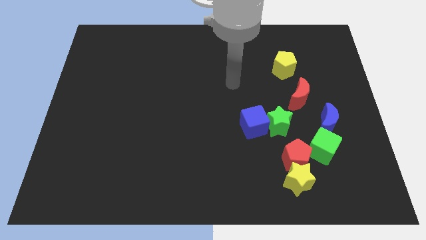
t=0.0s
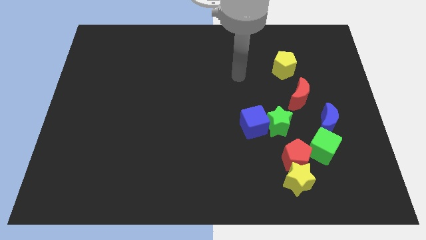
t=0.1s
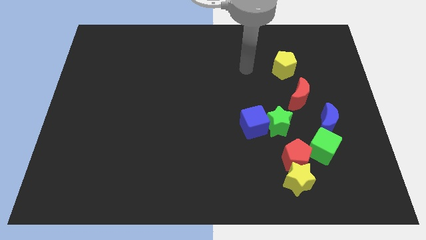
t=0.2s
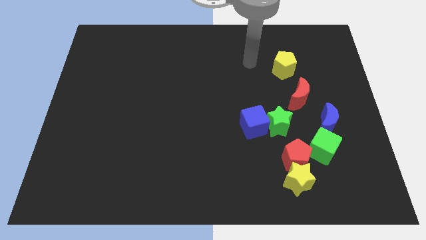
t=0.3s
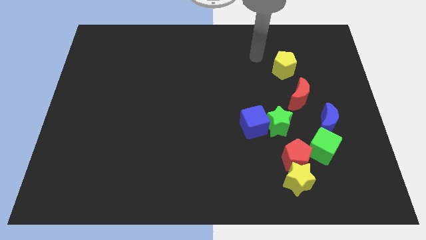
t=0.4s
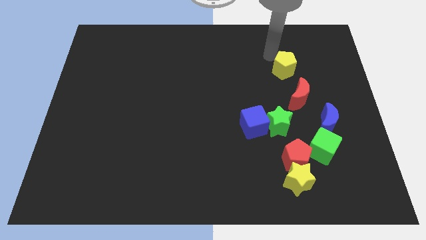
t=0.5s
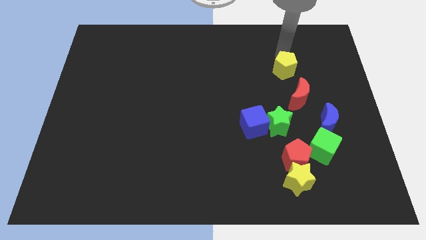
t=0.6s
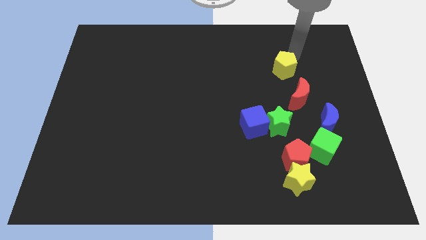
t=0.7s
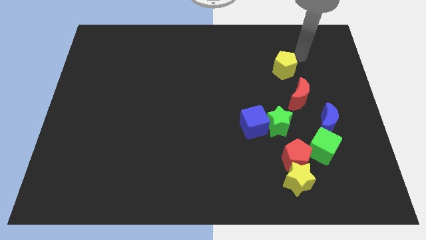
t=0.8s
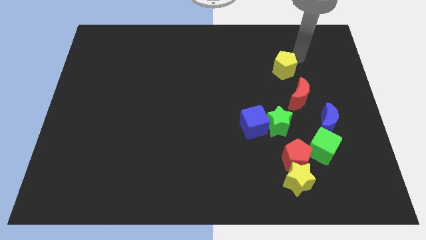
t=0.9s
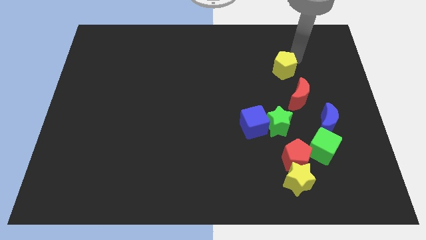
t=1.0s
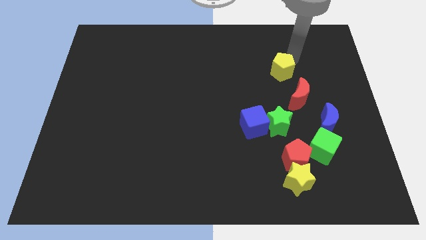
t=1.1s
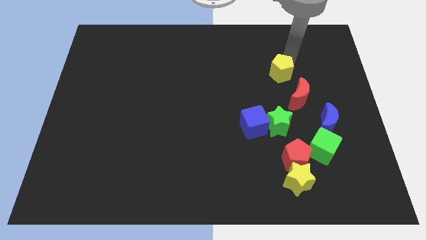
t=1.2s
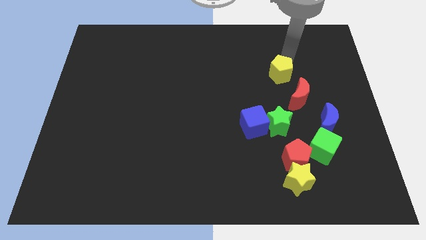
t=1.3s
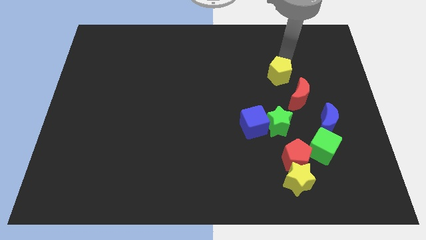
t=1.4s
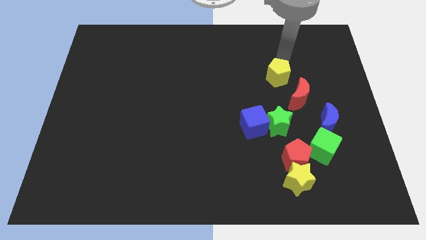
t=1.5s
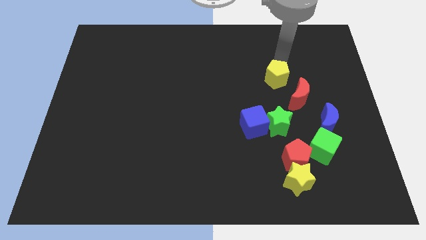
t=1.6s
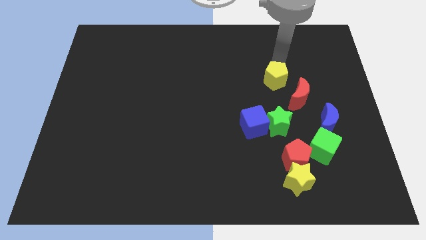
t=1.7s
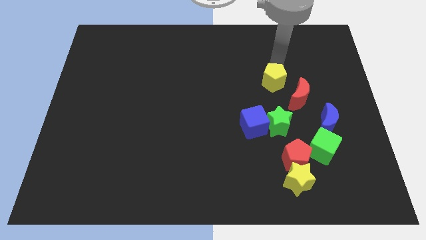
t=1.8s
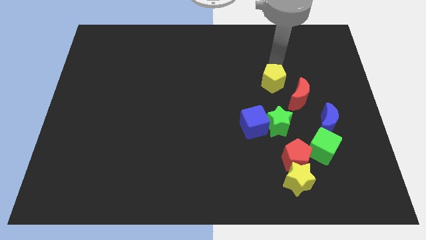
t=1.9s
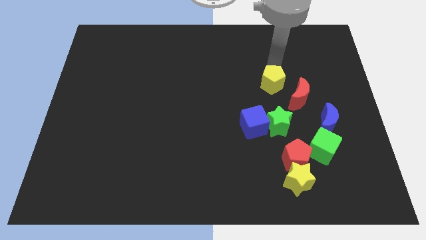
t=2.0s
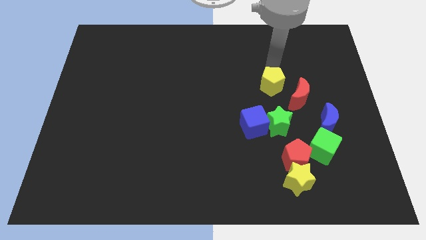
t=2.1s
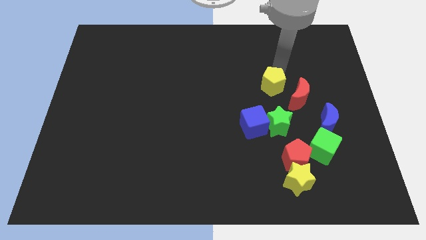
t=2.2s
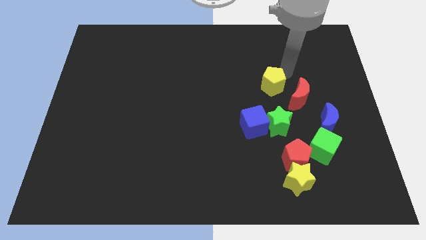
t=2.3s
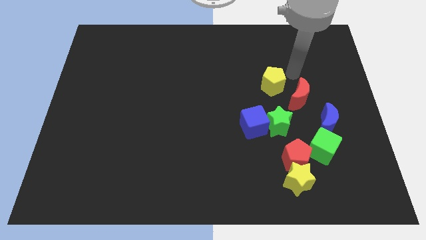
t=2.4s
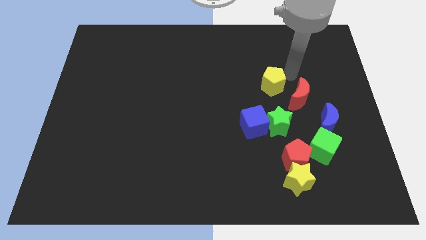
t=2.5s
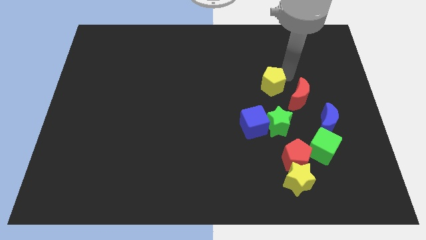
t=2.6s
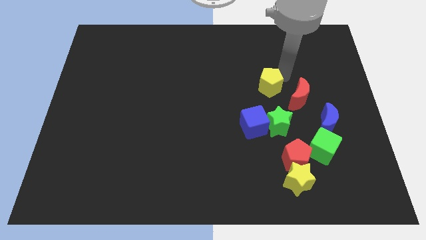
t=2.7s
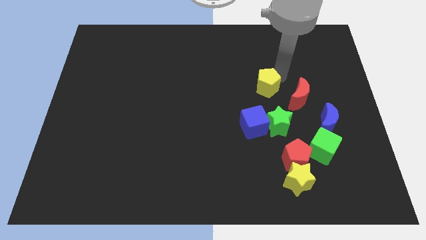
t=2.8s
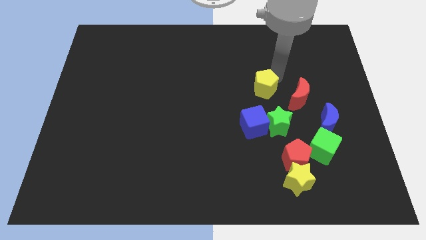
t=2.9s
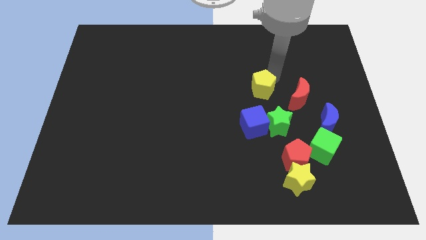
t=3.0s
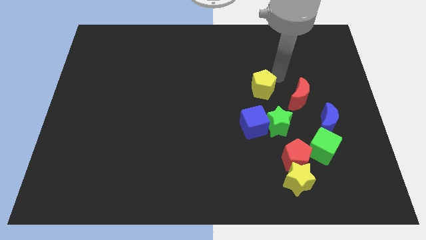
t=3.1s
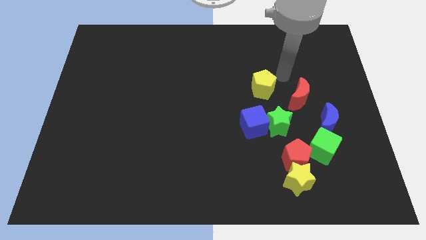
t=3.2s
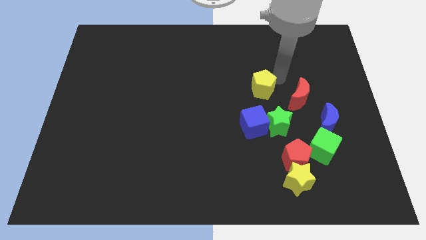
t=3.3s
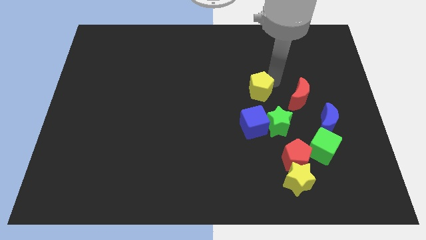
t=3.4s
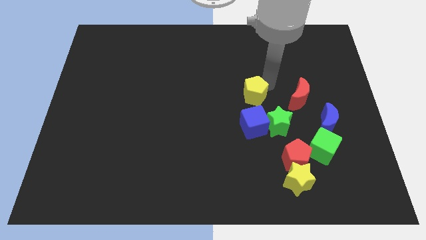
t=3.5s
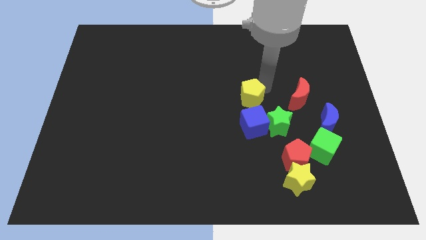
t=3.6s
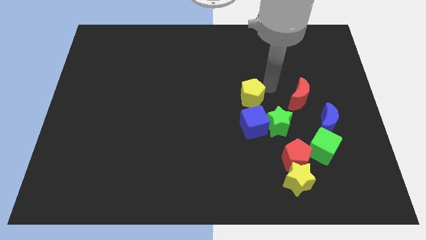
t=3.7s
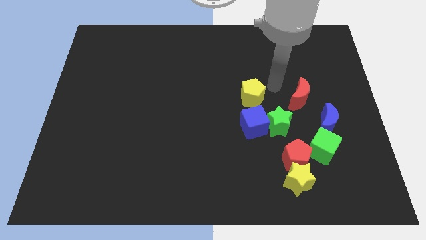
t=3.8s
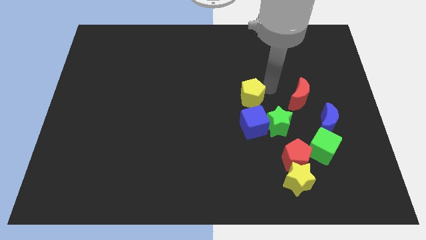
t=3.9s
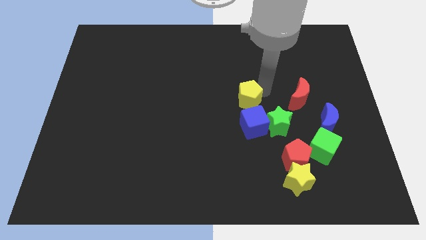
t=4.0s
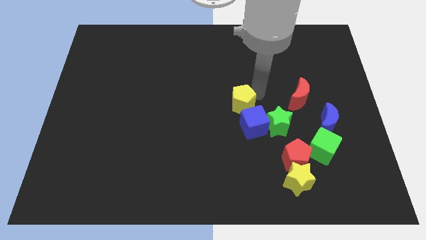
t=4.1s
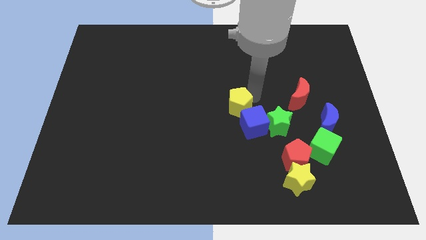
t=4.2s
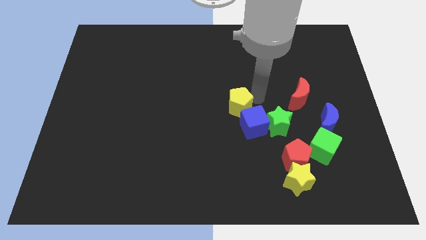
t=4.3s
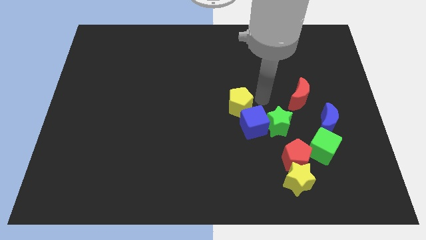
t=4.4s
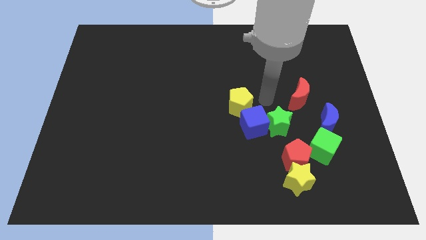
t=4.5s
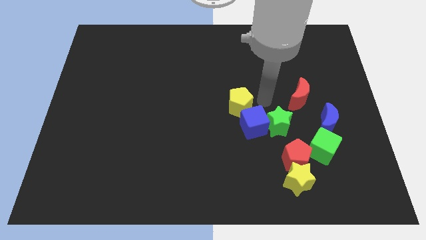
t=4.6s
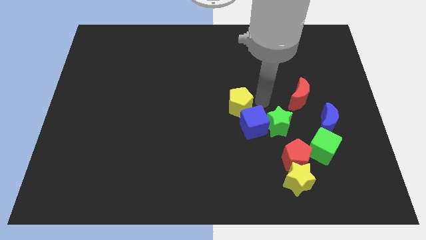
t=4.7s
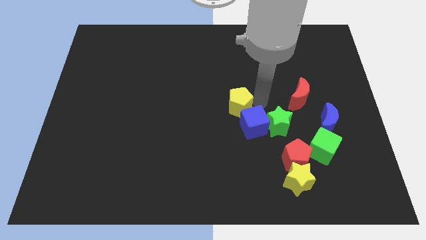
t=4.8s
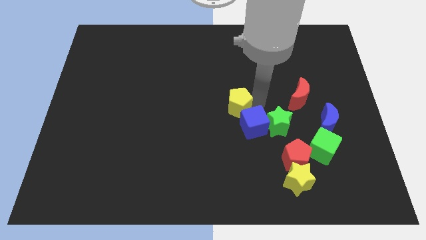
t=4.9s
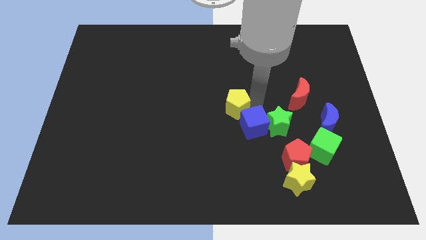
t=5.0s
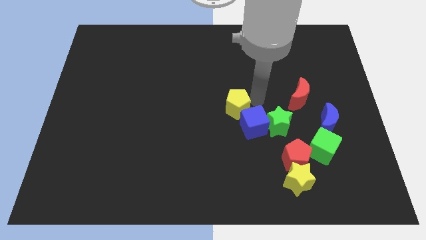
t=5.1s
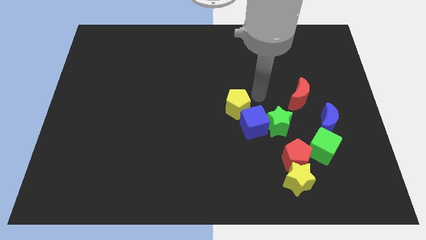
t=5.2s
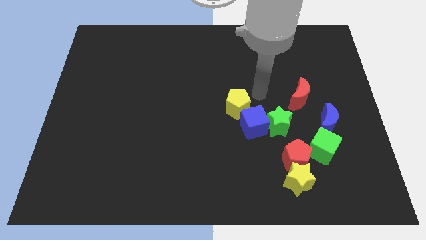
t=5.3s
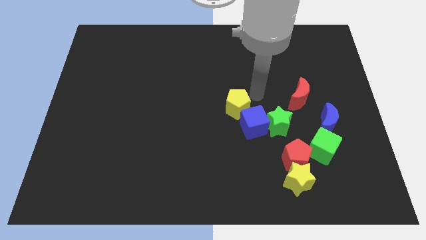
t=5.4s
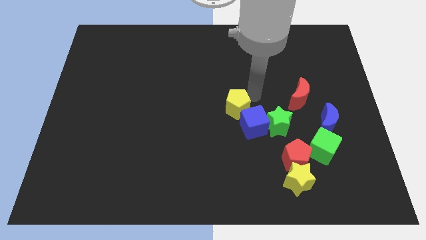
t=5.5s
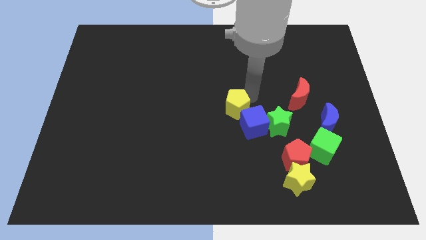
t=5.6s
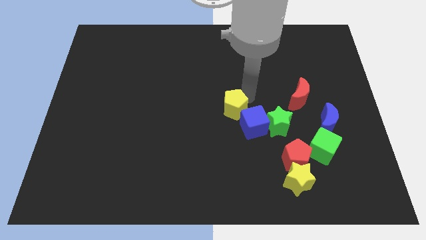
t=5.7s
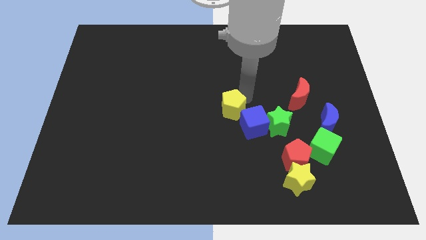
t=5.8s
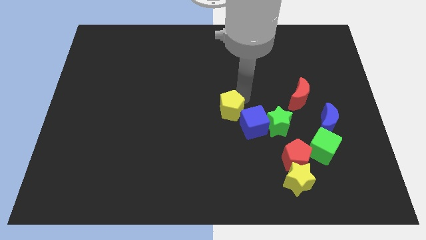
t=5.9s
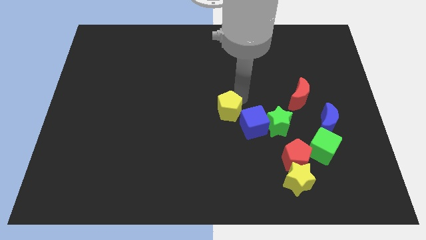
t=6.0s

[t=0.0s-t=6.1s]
push the yellow pentagon diagonally downwards and left

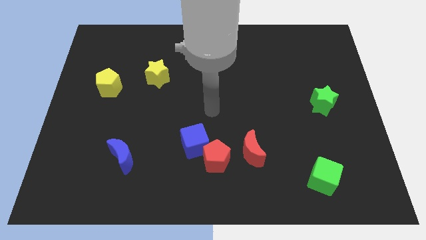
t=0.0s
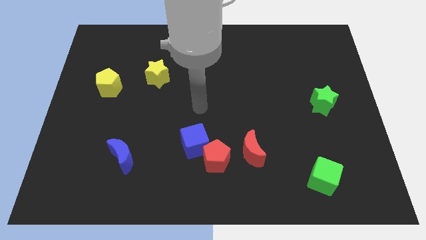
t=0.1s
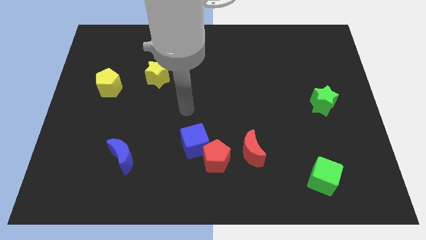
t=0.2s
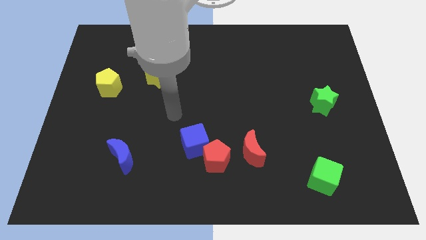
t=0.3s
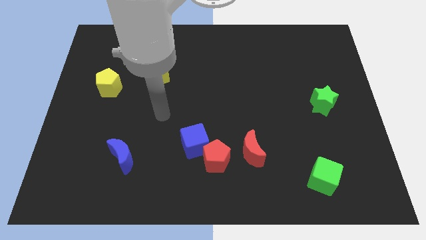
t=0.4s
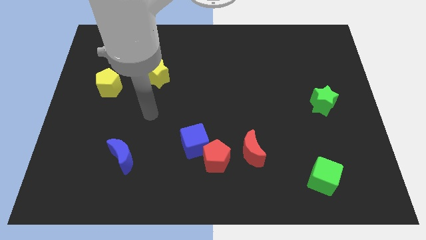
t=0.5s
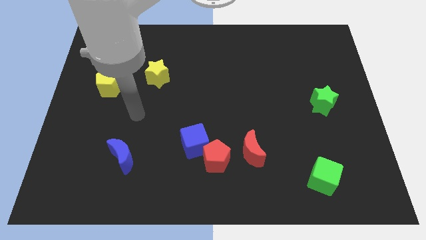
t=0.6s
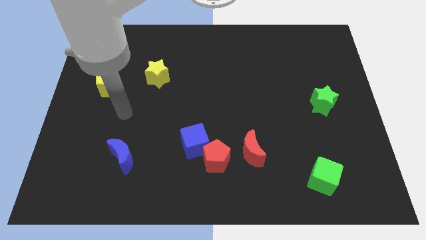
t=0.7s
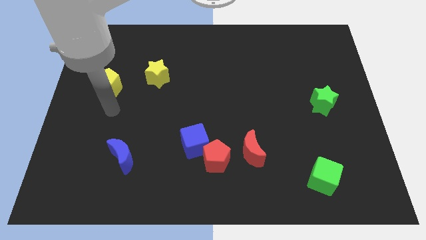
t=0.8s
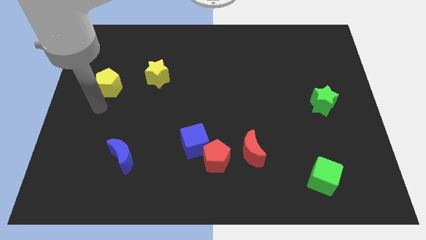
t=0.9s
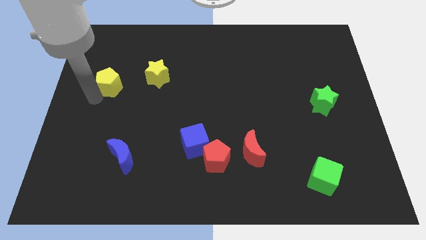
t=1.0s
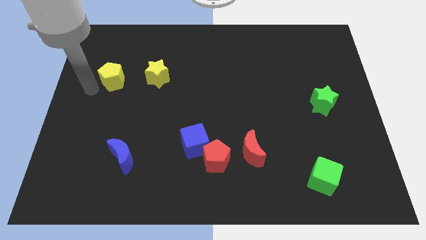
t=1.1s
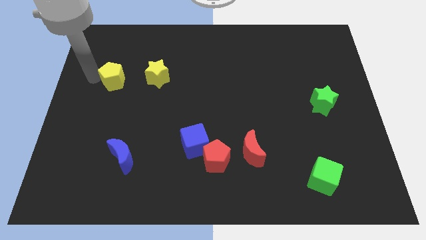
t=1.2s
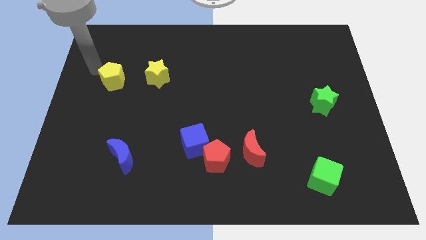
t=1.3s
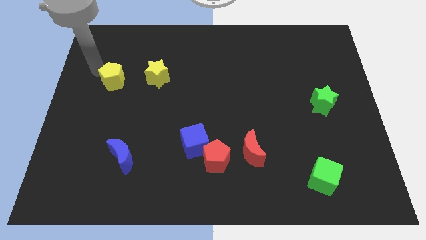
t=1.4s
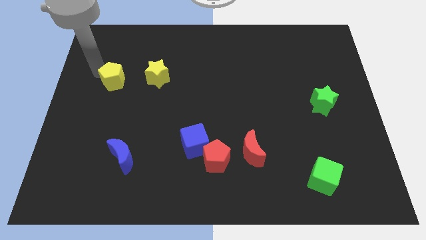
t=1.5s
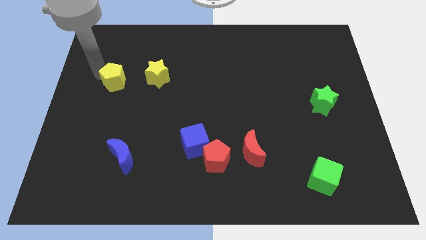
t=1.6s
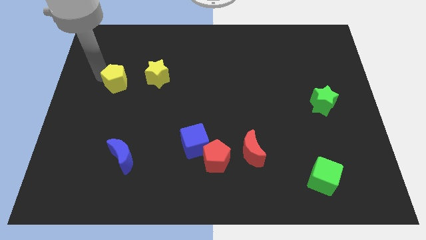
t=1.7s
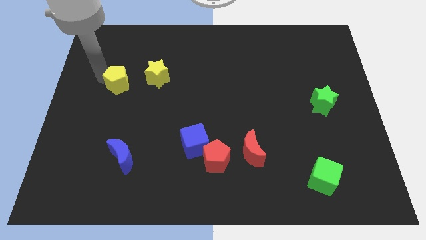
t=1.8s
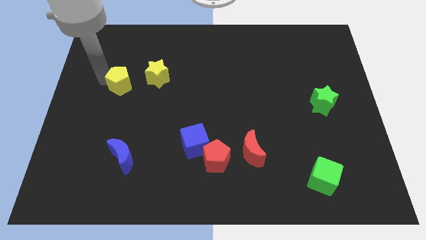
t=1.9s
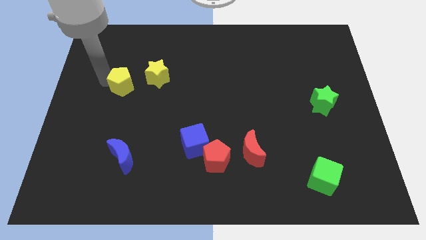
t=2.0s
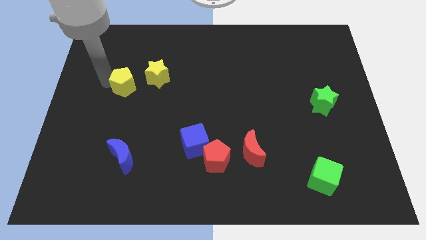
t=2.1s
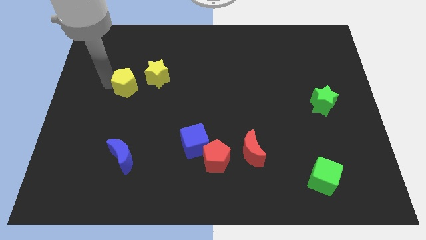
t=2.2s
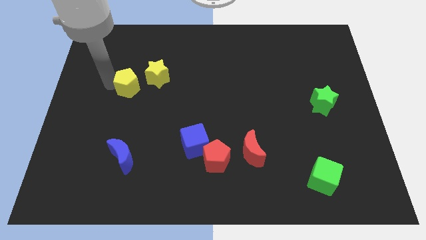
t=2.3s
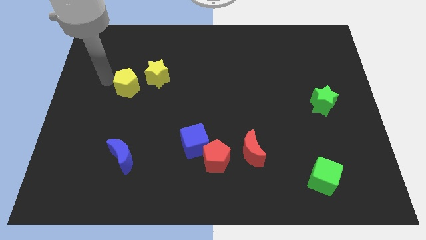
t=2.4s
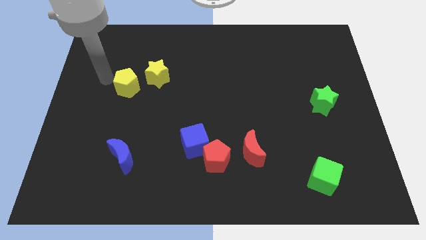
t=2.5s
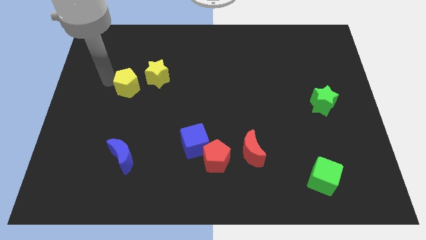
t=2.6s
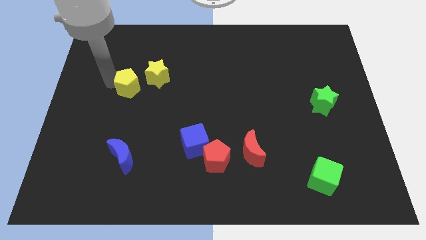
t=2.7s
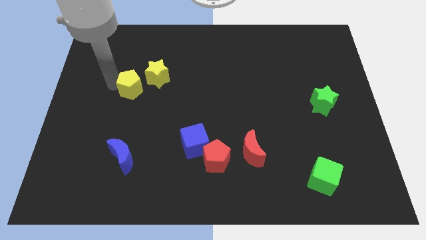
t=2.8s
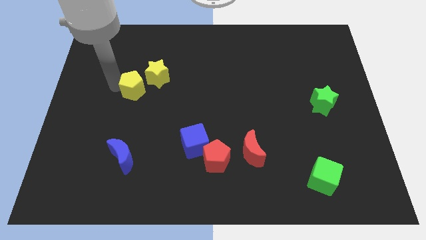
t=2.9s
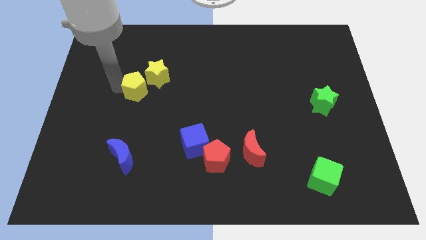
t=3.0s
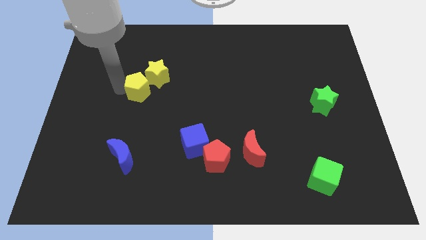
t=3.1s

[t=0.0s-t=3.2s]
push the yellow pentagon right a little
